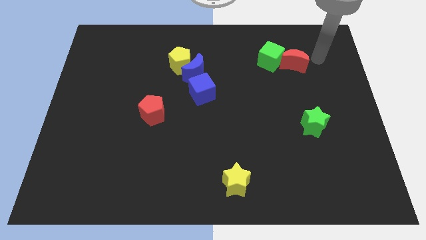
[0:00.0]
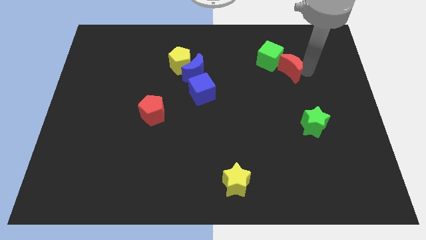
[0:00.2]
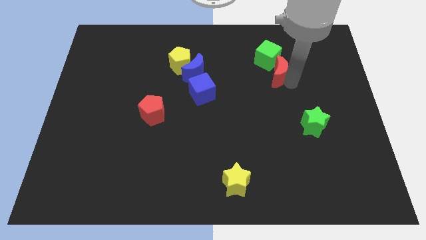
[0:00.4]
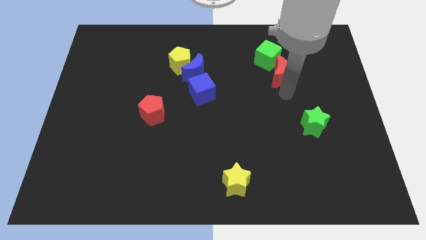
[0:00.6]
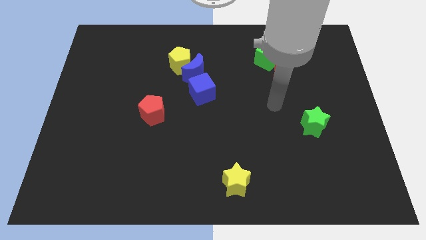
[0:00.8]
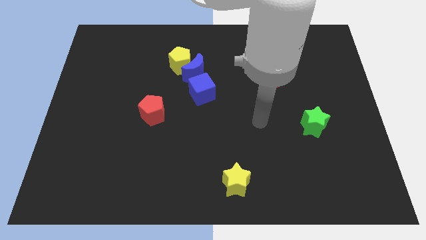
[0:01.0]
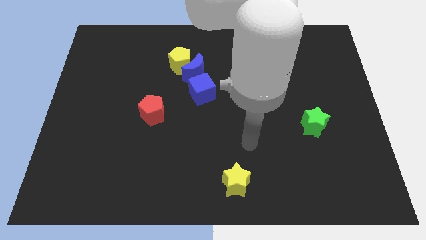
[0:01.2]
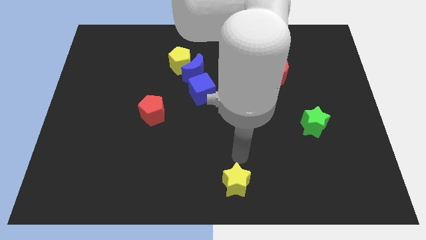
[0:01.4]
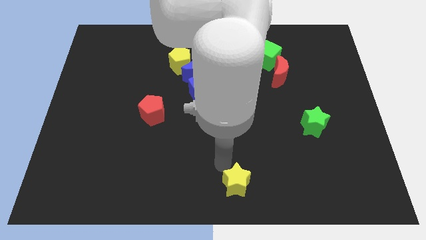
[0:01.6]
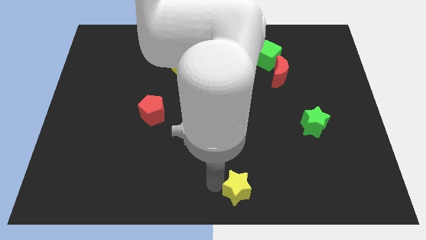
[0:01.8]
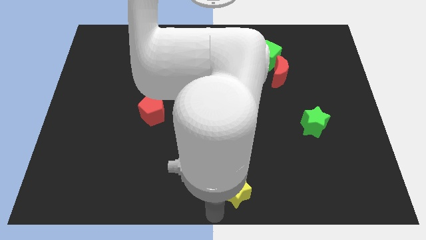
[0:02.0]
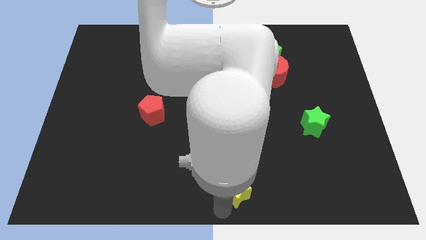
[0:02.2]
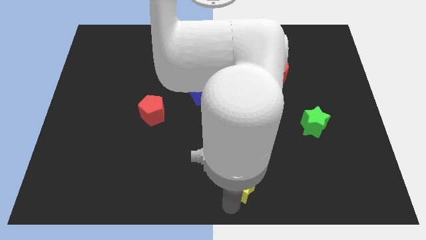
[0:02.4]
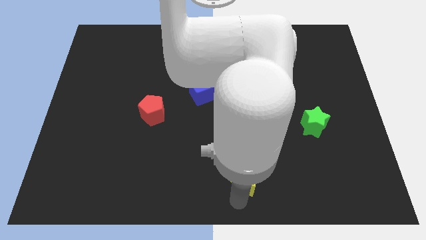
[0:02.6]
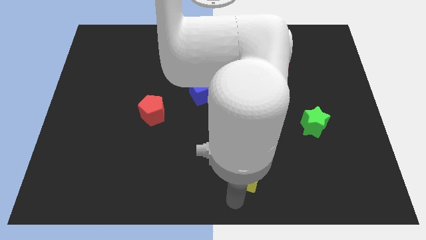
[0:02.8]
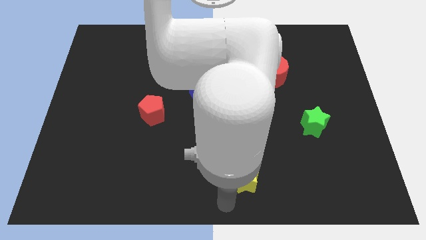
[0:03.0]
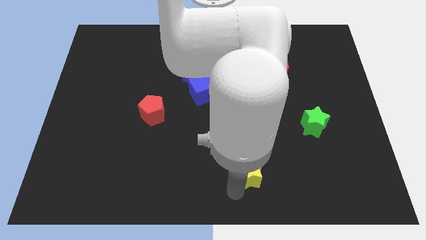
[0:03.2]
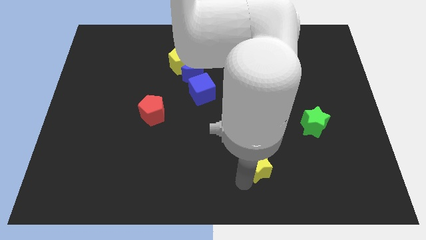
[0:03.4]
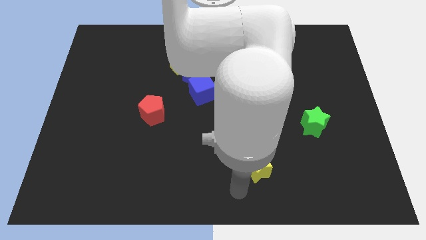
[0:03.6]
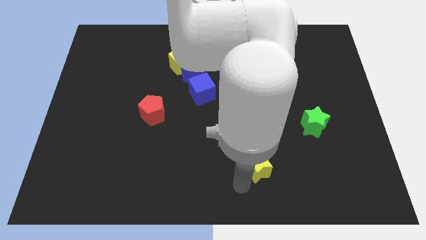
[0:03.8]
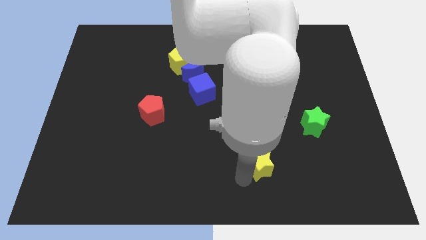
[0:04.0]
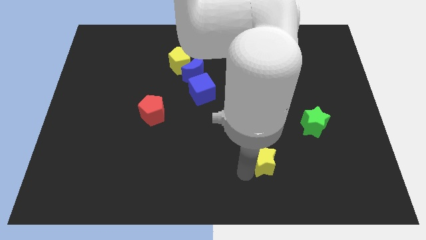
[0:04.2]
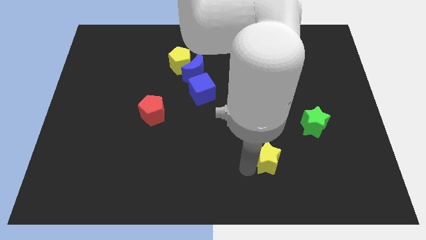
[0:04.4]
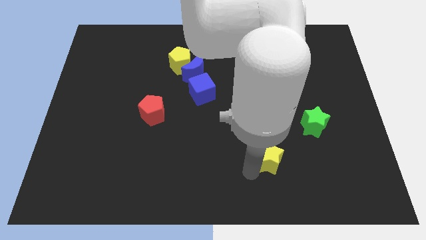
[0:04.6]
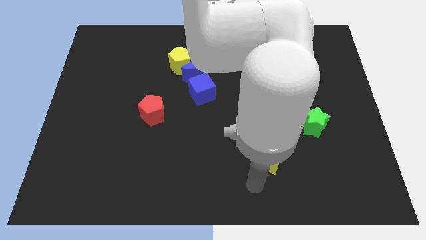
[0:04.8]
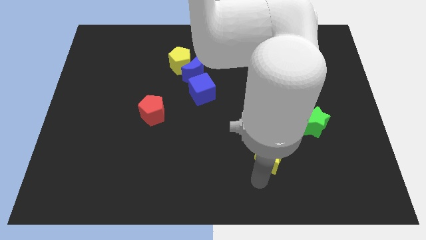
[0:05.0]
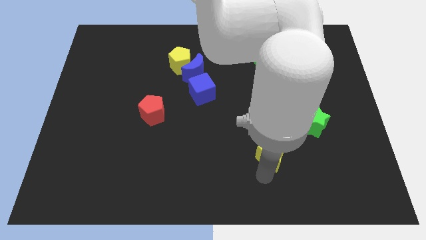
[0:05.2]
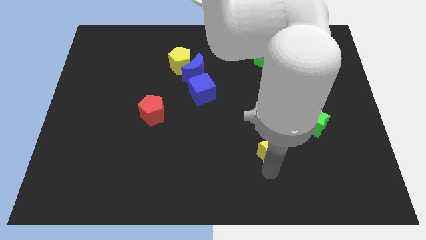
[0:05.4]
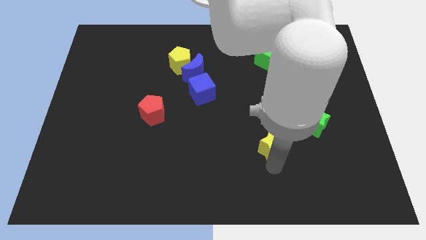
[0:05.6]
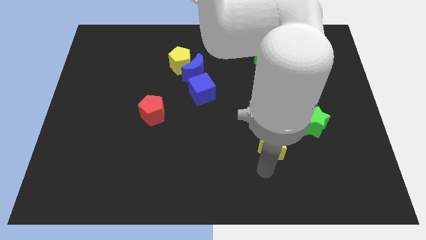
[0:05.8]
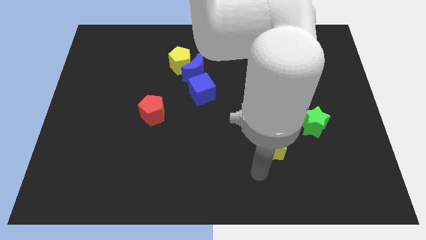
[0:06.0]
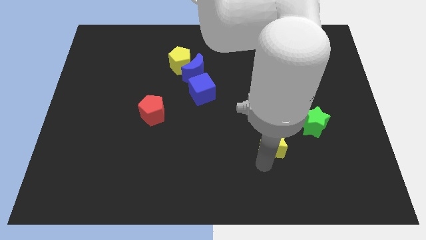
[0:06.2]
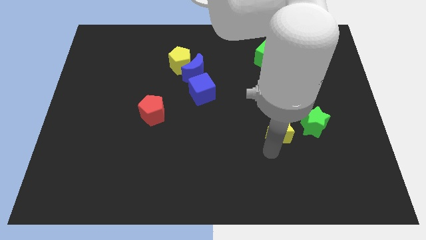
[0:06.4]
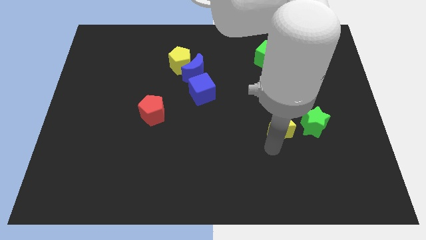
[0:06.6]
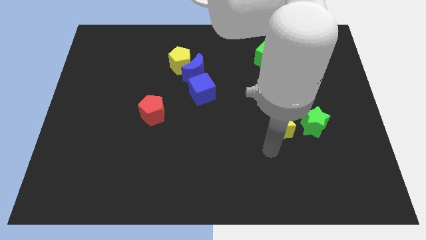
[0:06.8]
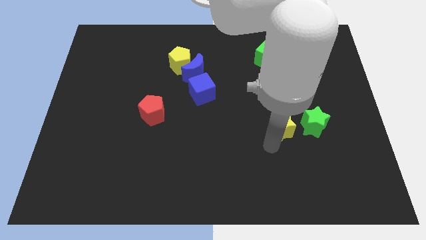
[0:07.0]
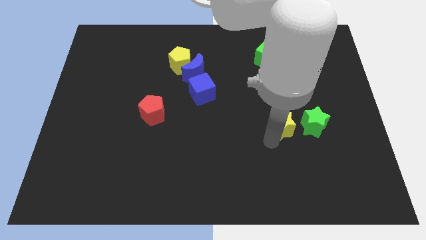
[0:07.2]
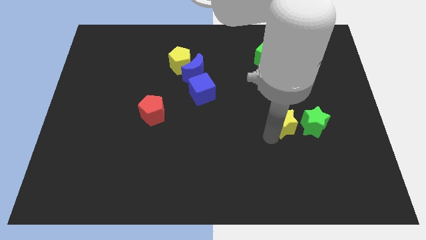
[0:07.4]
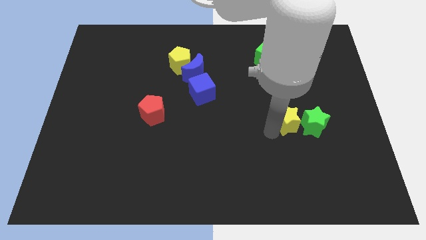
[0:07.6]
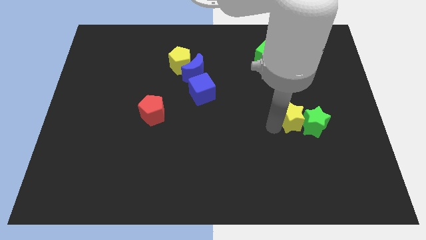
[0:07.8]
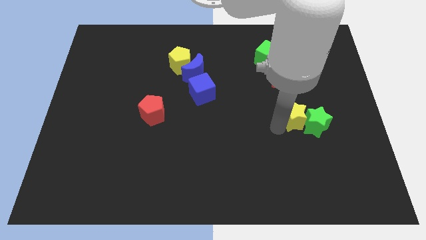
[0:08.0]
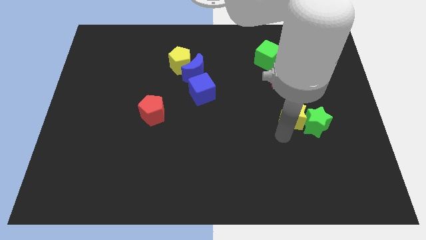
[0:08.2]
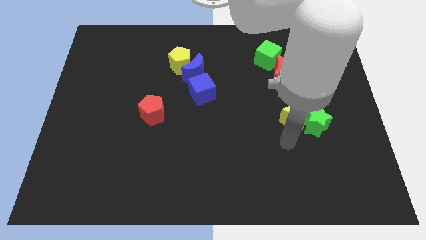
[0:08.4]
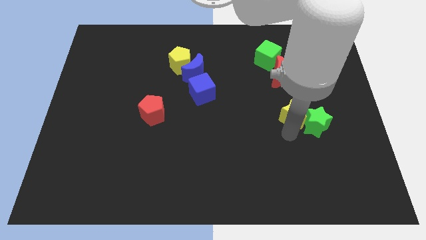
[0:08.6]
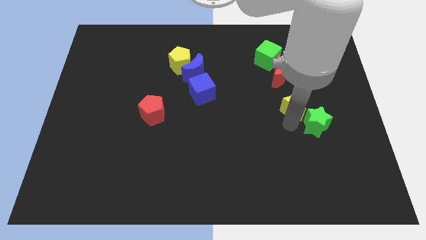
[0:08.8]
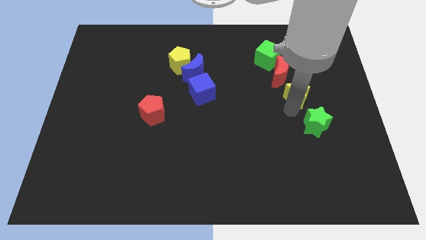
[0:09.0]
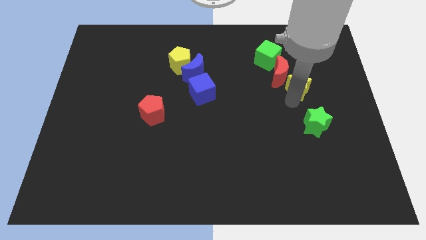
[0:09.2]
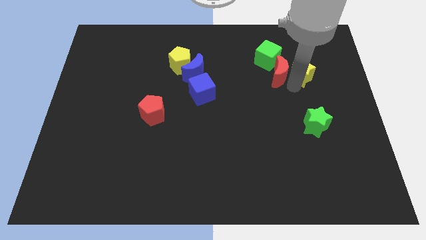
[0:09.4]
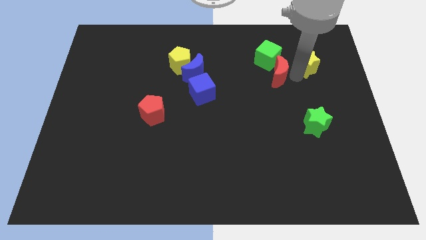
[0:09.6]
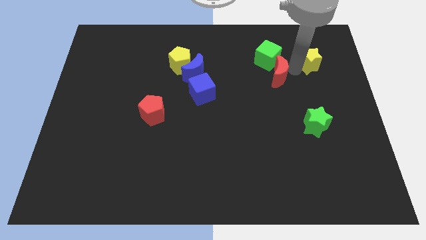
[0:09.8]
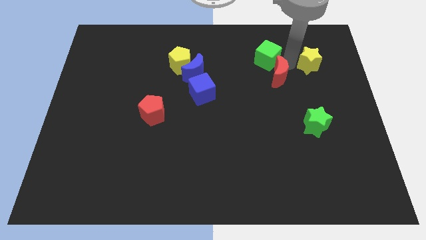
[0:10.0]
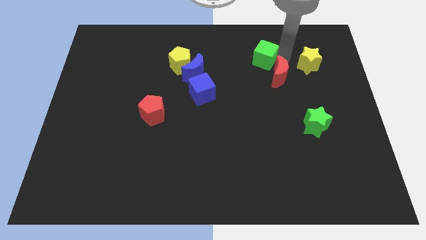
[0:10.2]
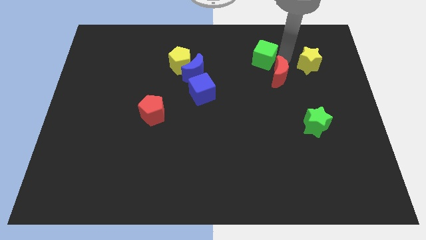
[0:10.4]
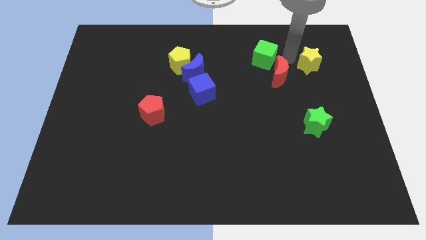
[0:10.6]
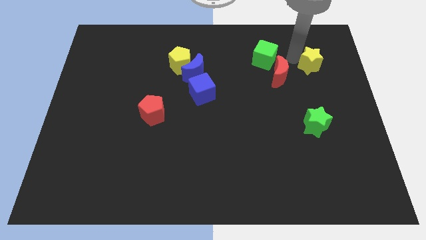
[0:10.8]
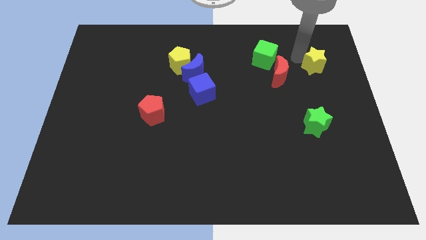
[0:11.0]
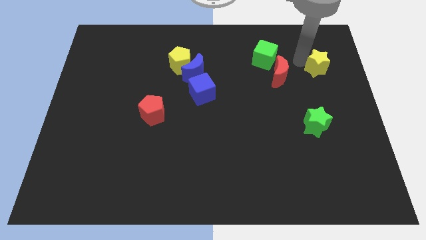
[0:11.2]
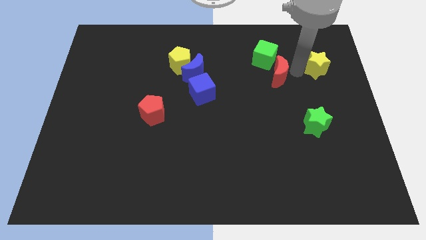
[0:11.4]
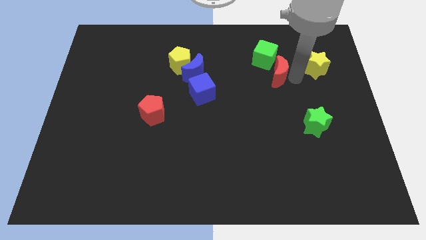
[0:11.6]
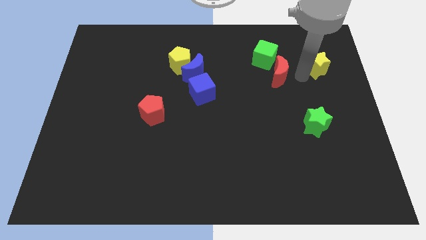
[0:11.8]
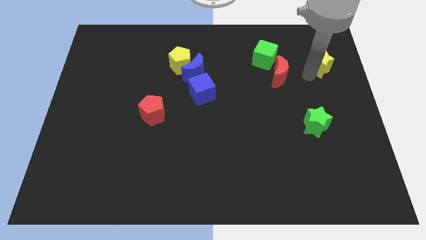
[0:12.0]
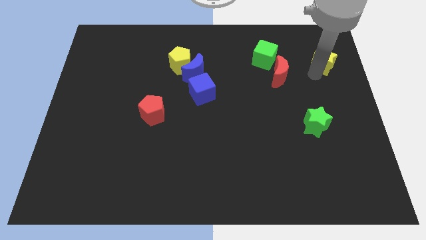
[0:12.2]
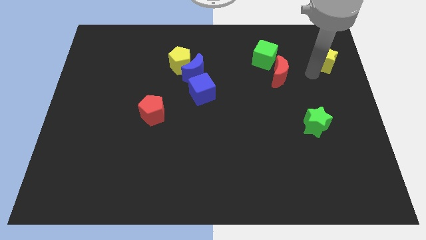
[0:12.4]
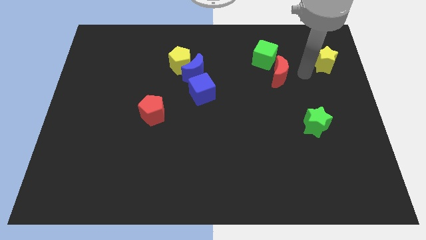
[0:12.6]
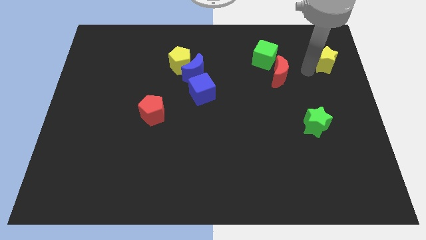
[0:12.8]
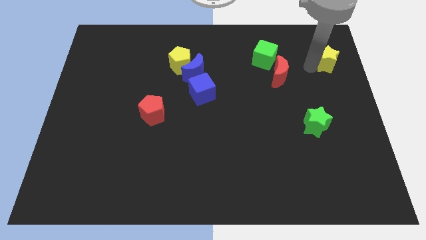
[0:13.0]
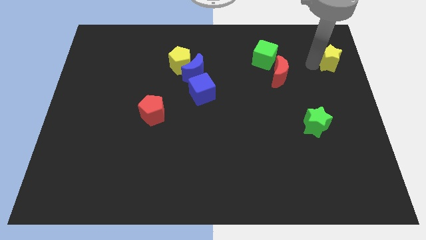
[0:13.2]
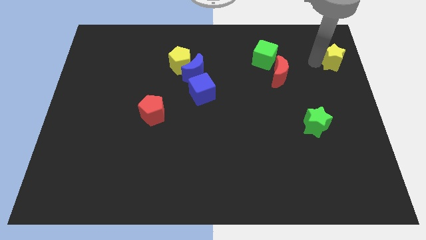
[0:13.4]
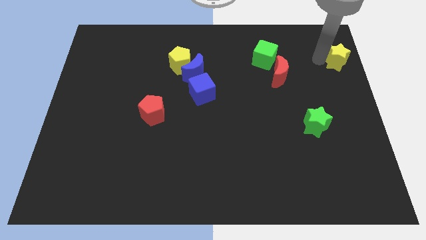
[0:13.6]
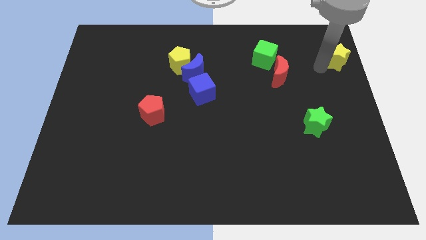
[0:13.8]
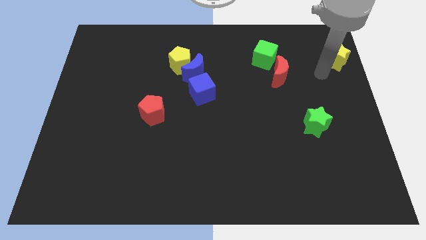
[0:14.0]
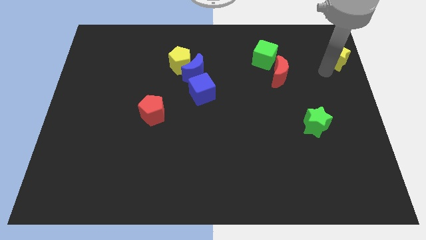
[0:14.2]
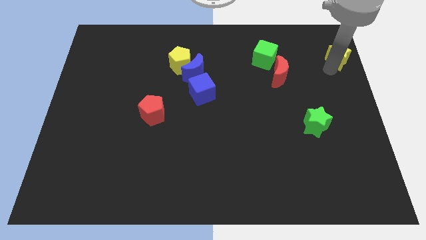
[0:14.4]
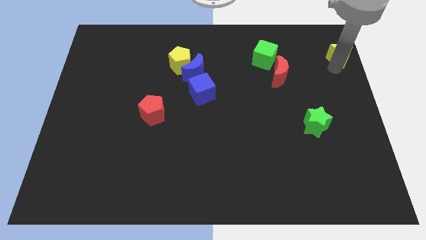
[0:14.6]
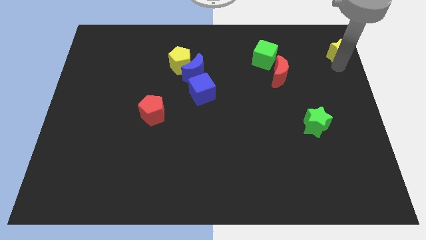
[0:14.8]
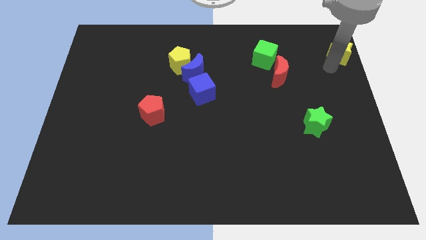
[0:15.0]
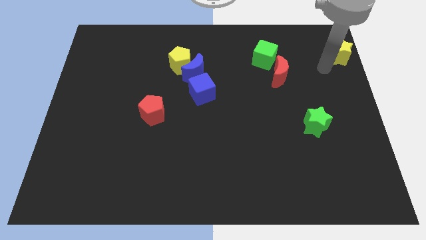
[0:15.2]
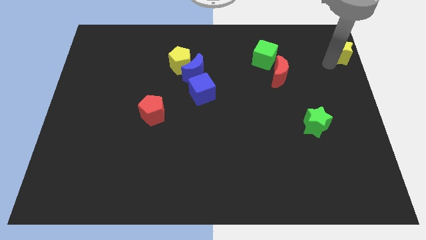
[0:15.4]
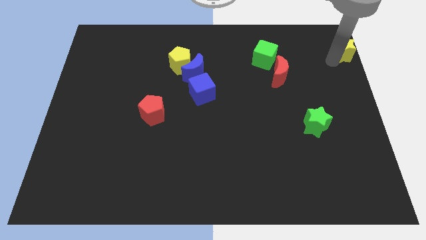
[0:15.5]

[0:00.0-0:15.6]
slide the yellow star to the upper right corner
